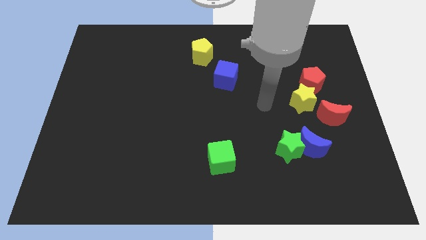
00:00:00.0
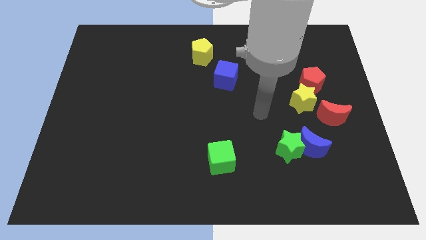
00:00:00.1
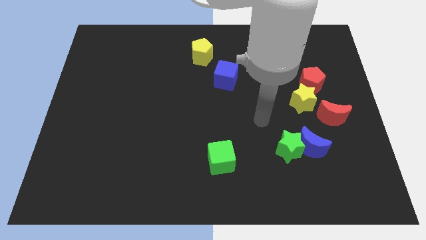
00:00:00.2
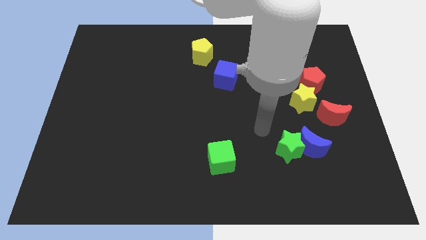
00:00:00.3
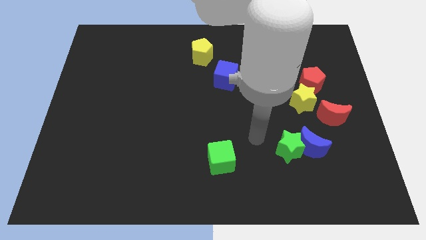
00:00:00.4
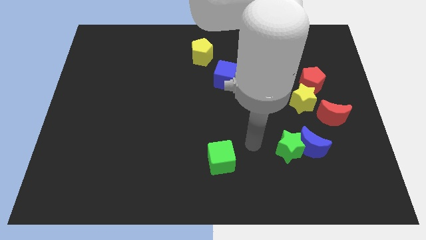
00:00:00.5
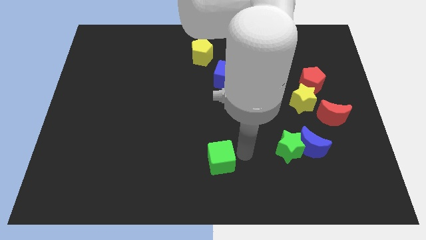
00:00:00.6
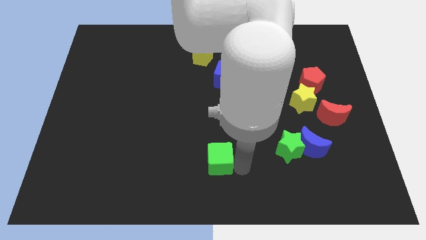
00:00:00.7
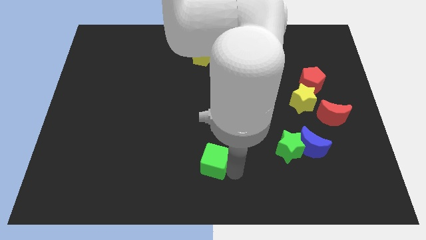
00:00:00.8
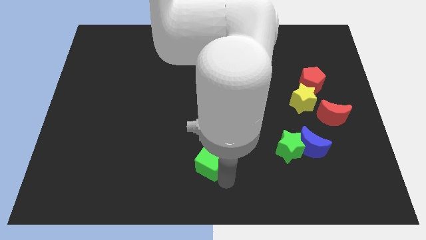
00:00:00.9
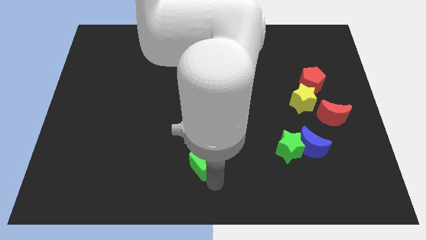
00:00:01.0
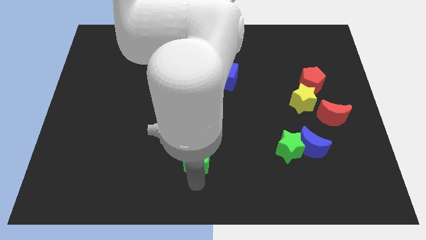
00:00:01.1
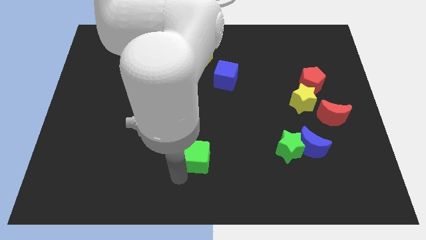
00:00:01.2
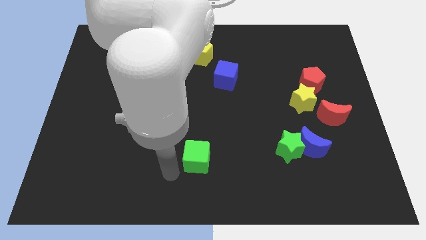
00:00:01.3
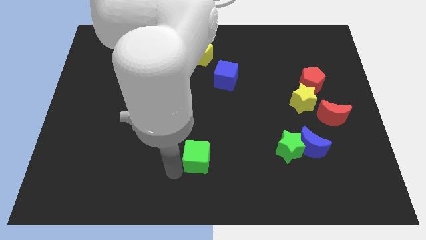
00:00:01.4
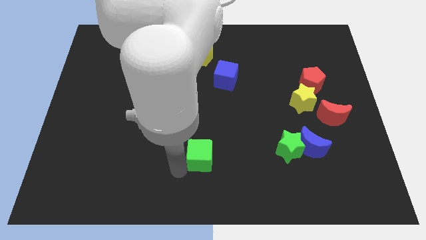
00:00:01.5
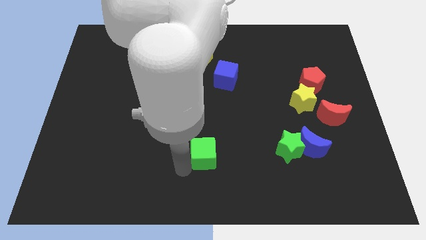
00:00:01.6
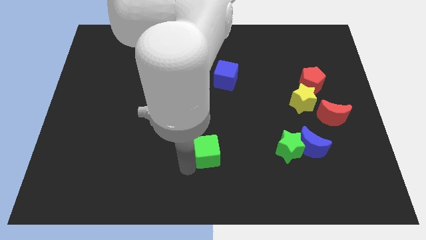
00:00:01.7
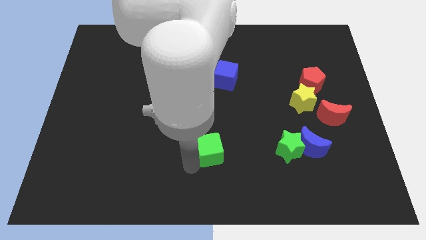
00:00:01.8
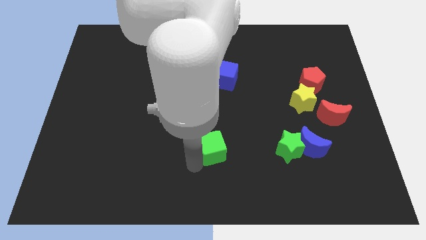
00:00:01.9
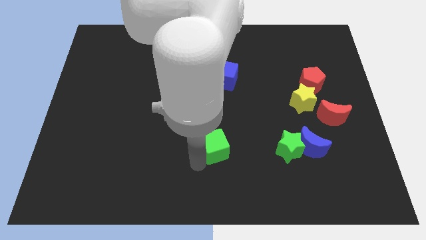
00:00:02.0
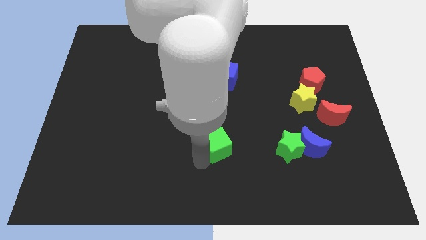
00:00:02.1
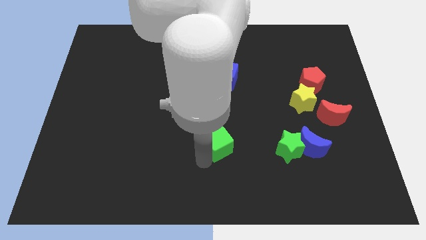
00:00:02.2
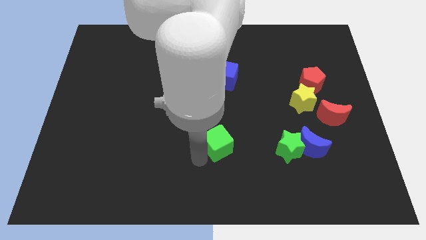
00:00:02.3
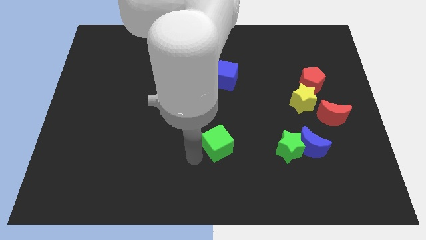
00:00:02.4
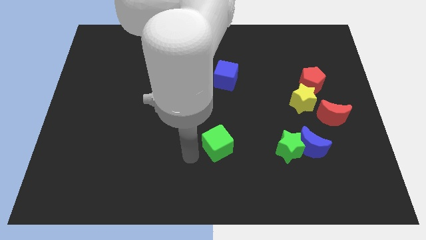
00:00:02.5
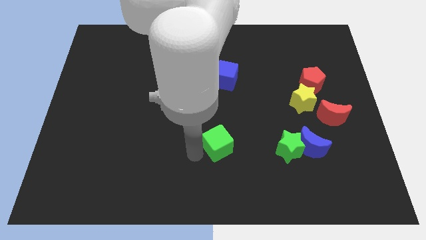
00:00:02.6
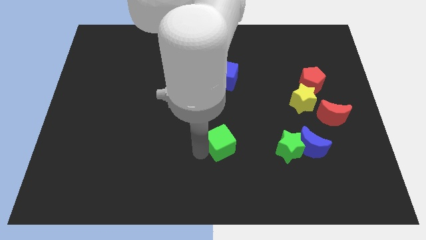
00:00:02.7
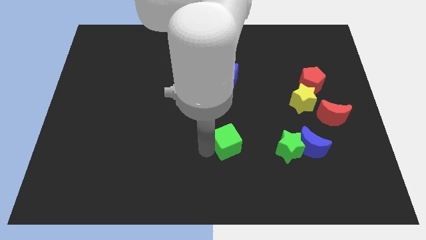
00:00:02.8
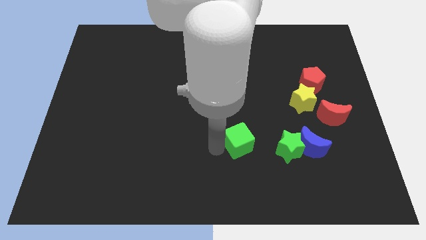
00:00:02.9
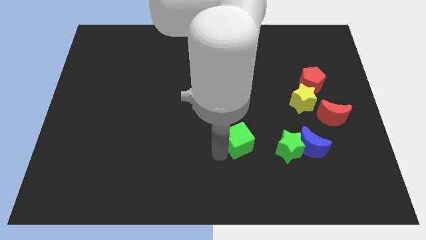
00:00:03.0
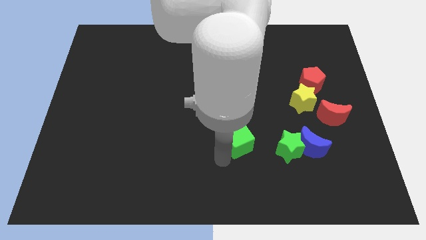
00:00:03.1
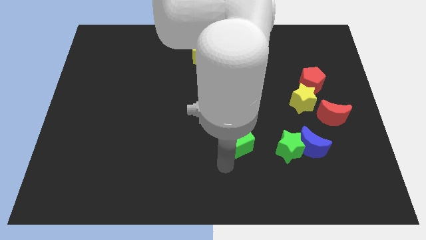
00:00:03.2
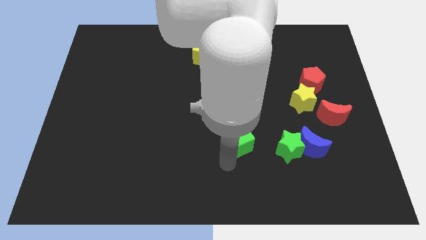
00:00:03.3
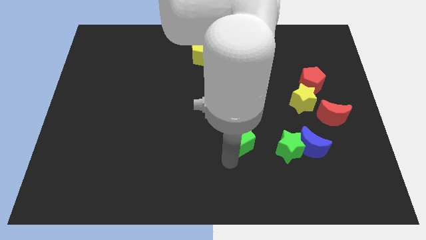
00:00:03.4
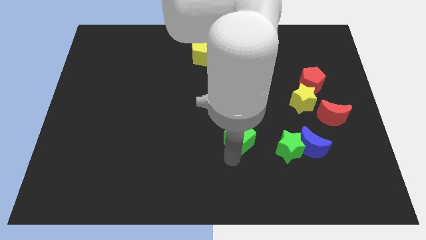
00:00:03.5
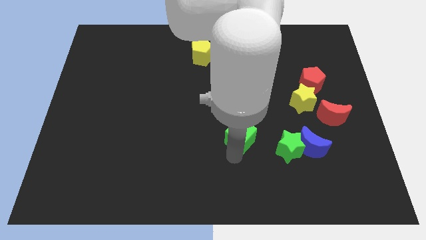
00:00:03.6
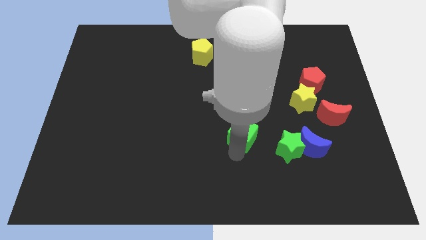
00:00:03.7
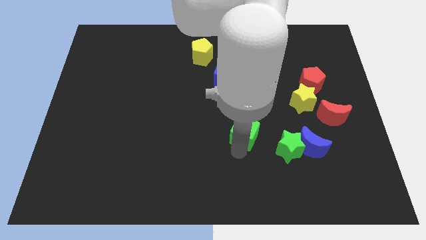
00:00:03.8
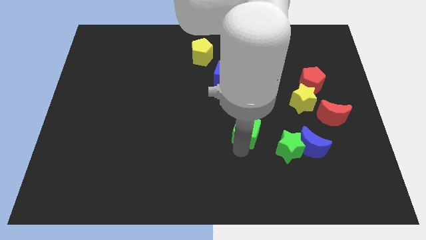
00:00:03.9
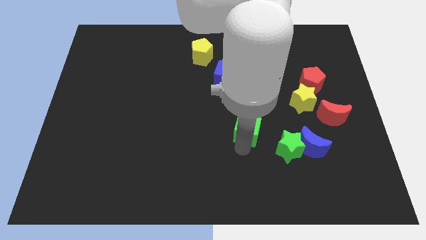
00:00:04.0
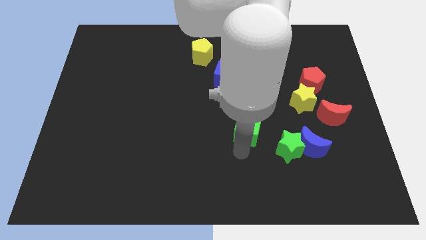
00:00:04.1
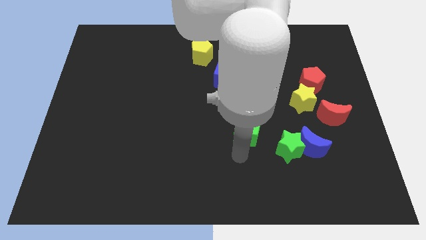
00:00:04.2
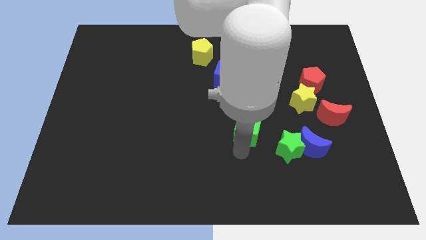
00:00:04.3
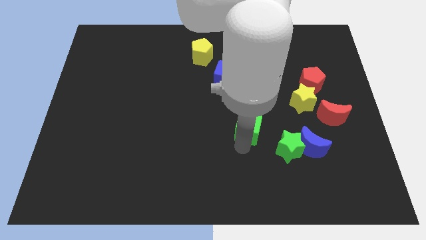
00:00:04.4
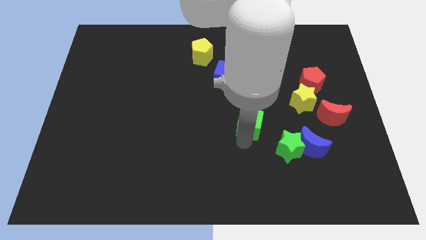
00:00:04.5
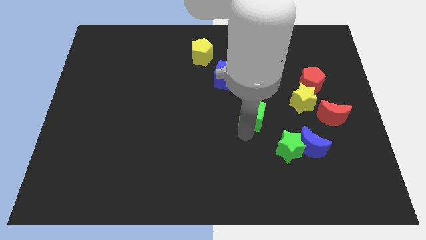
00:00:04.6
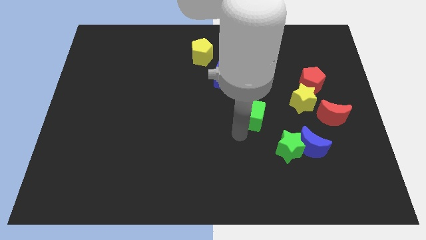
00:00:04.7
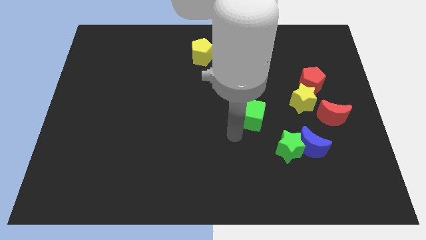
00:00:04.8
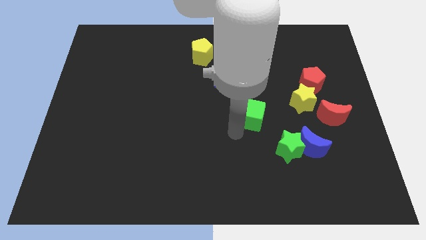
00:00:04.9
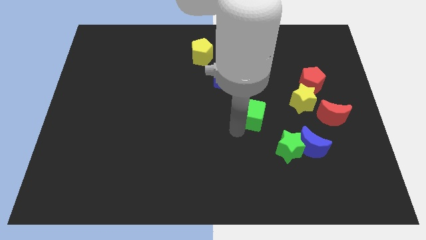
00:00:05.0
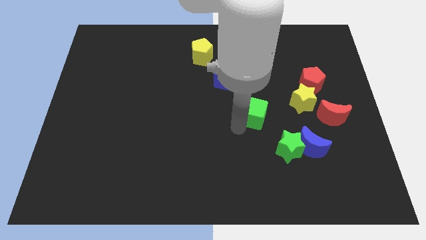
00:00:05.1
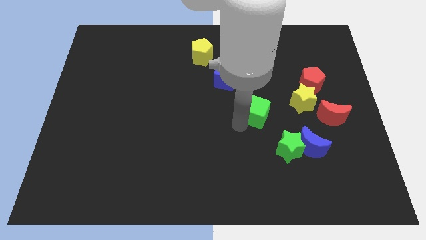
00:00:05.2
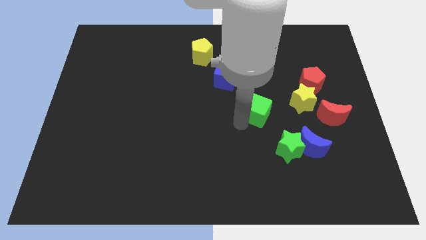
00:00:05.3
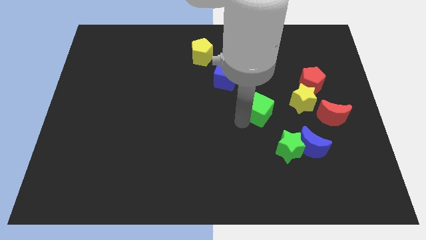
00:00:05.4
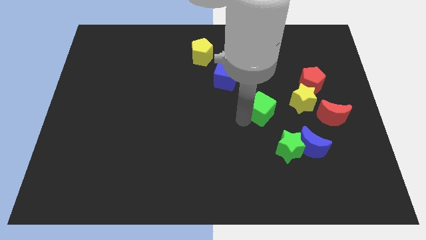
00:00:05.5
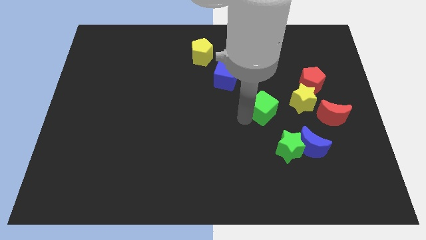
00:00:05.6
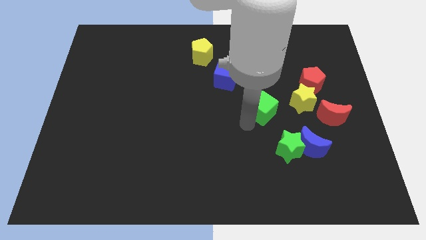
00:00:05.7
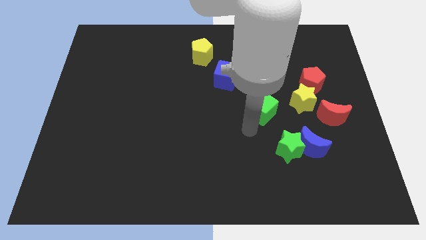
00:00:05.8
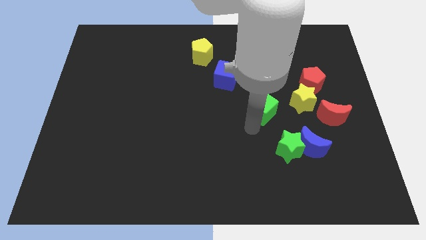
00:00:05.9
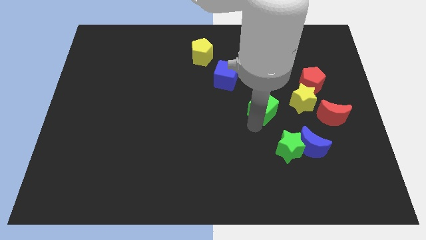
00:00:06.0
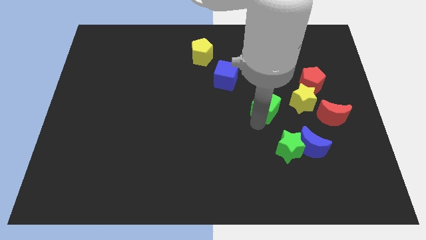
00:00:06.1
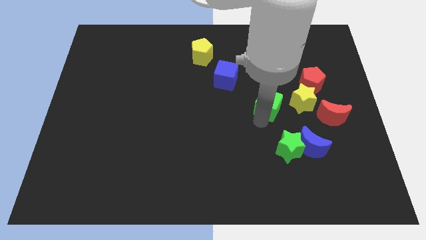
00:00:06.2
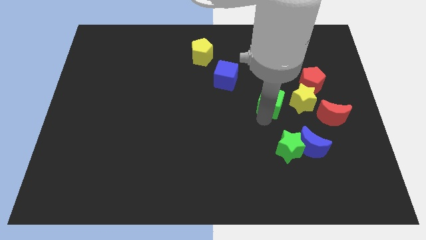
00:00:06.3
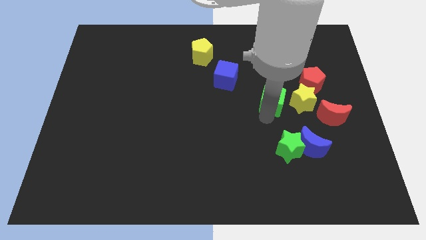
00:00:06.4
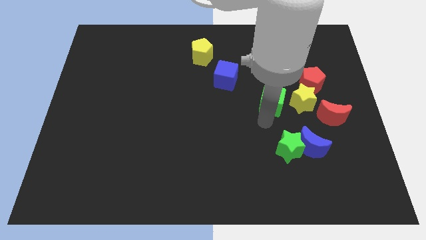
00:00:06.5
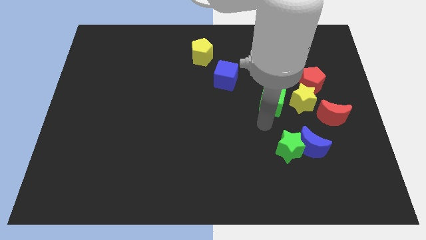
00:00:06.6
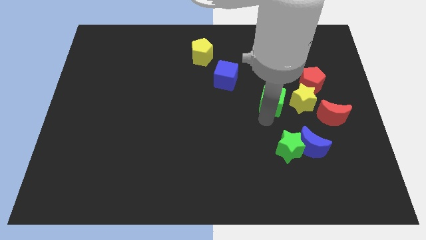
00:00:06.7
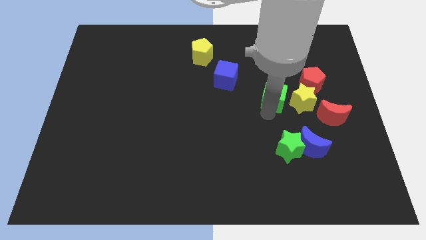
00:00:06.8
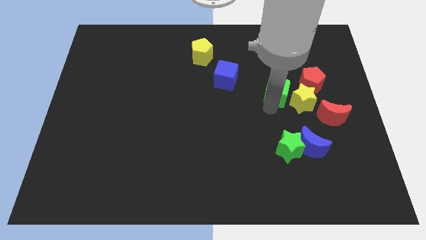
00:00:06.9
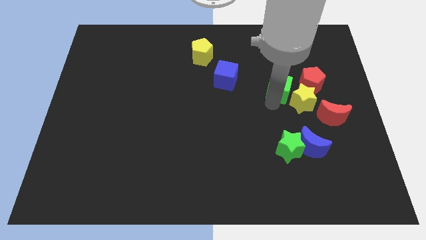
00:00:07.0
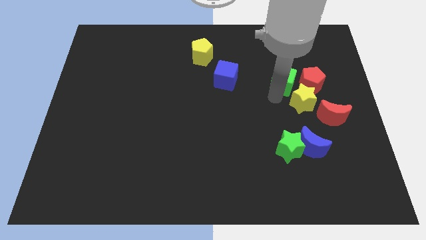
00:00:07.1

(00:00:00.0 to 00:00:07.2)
push the green cube to the top left of the red pentagon
